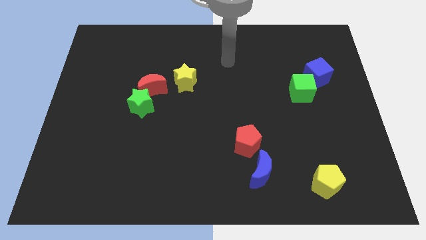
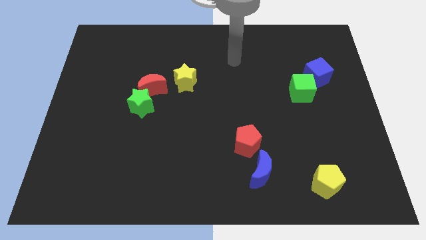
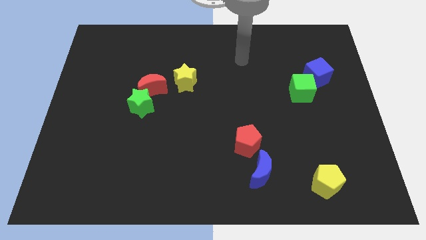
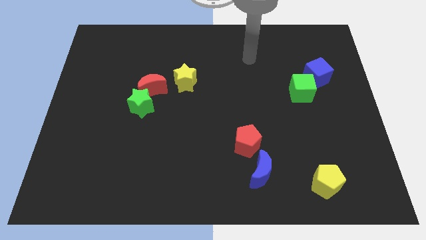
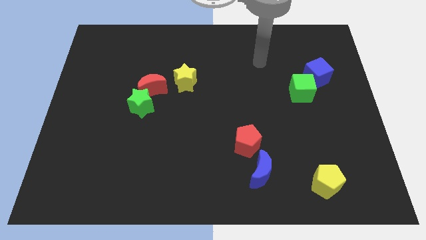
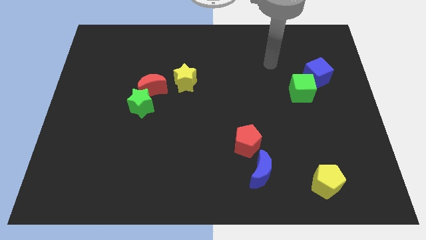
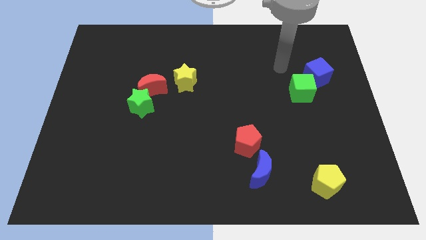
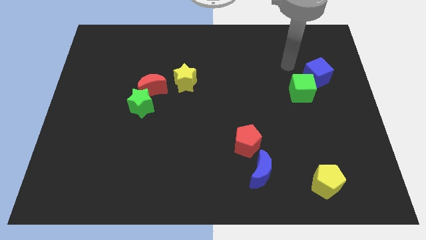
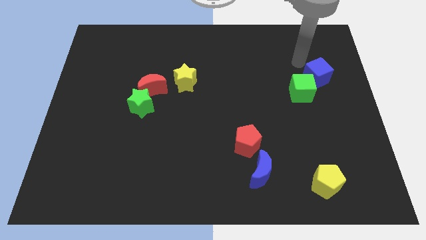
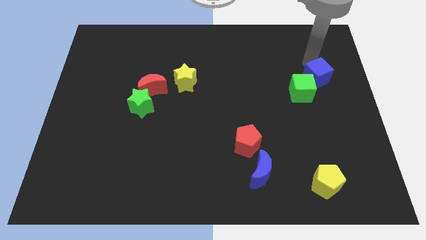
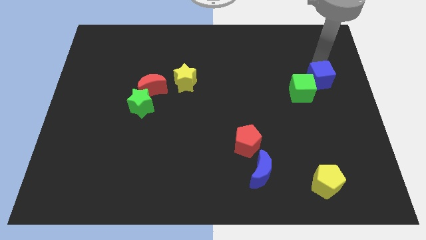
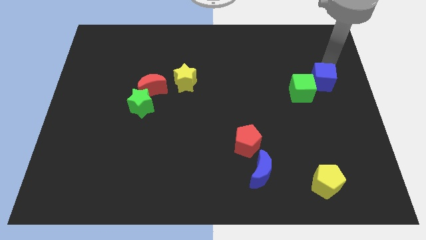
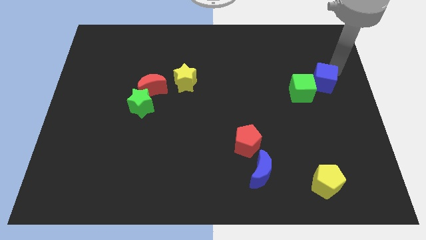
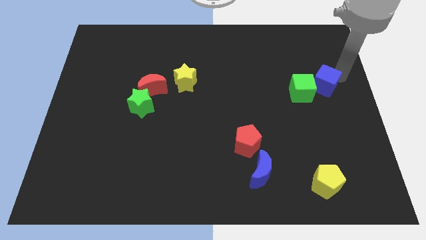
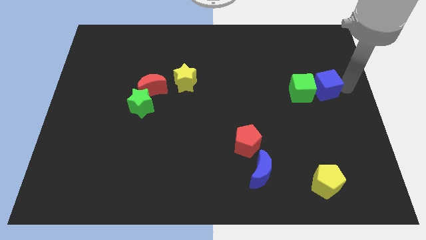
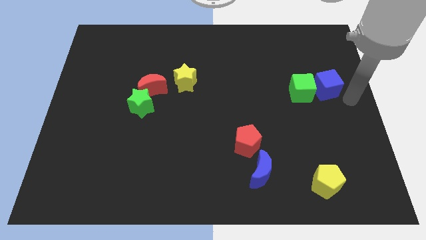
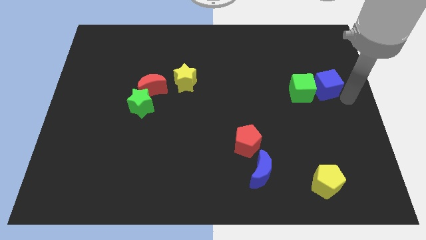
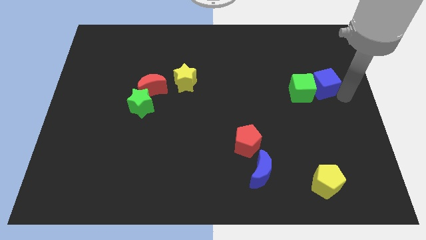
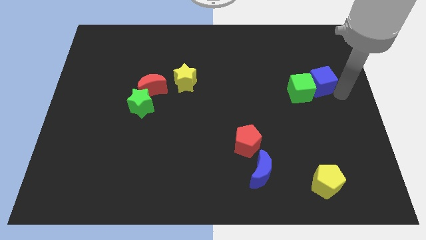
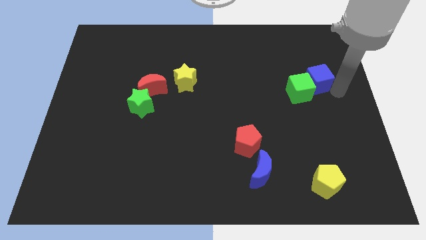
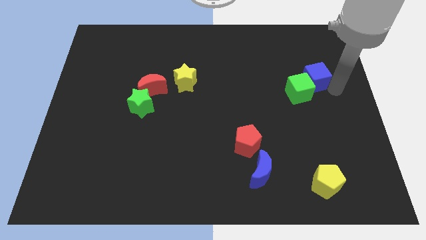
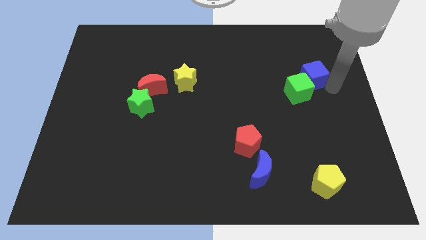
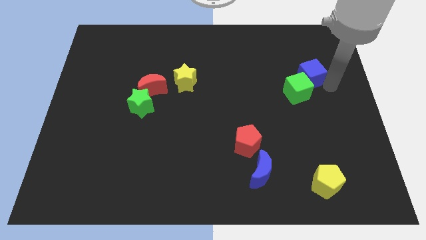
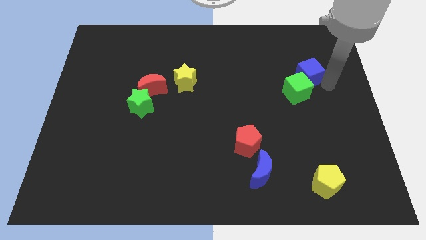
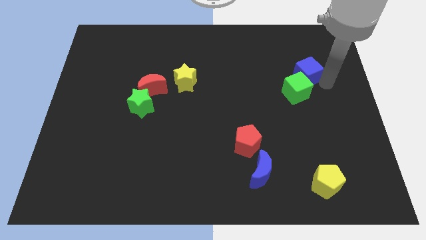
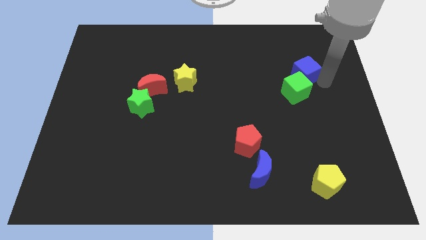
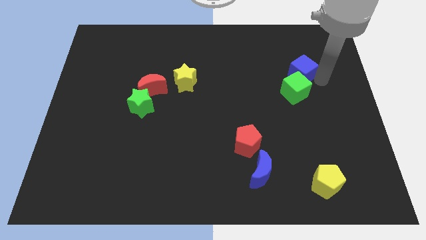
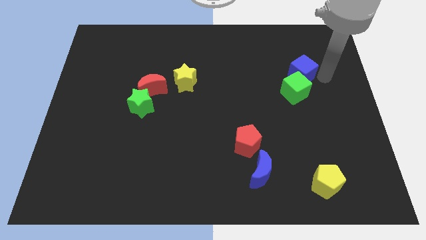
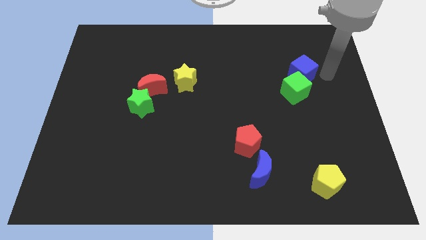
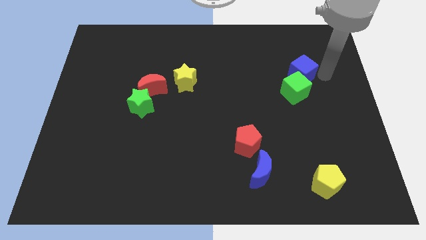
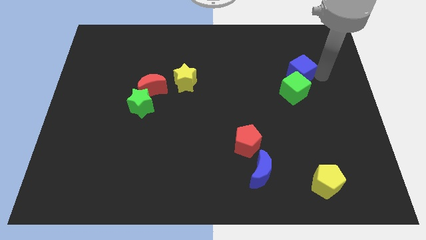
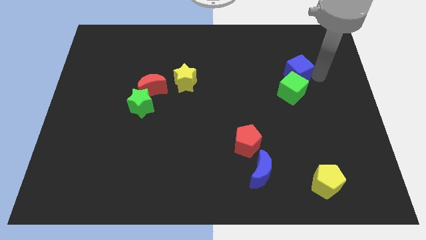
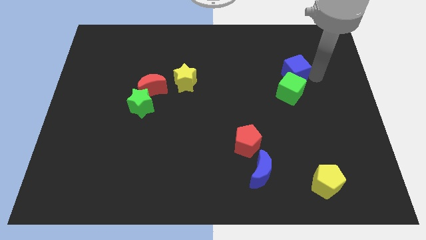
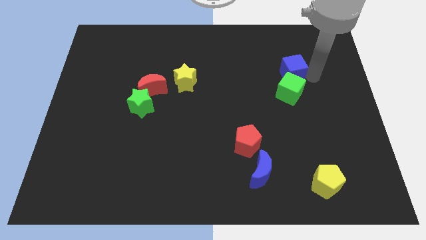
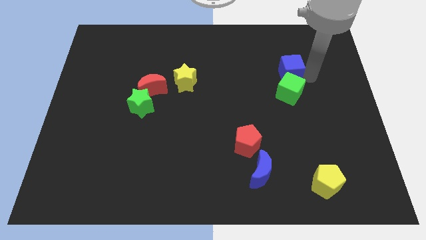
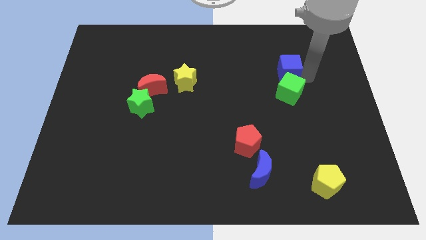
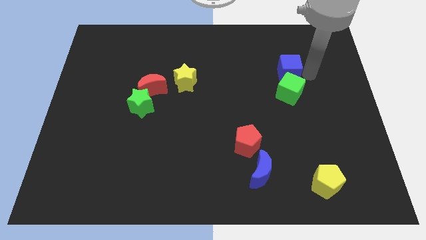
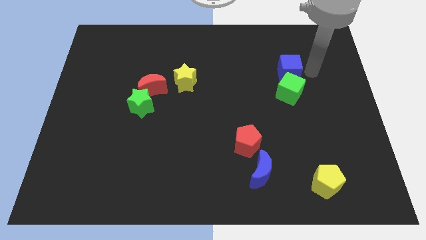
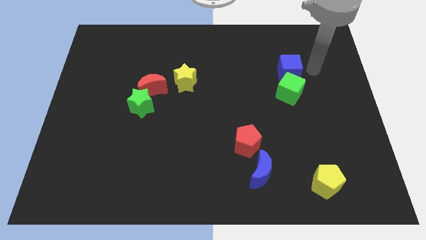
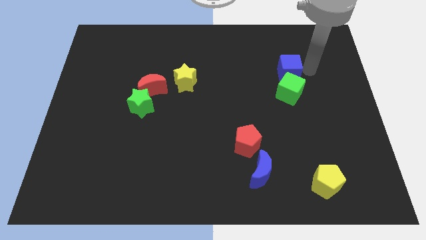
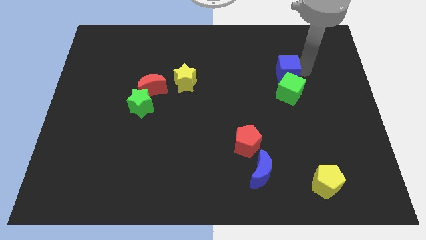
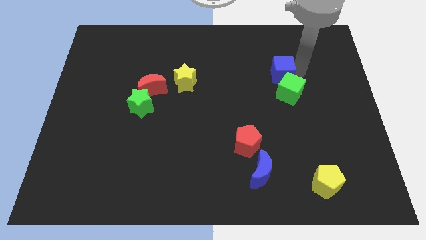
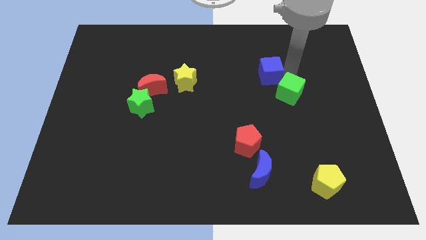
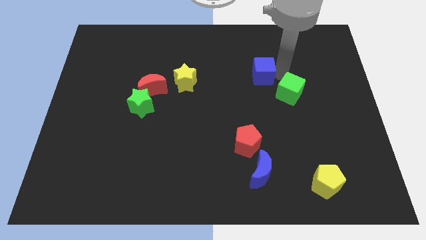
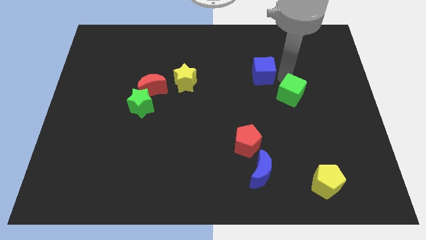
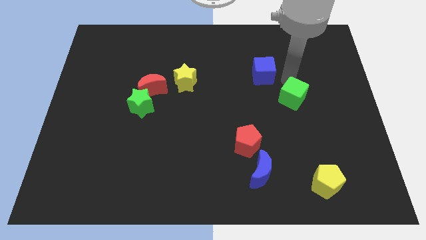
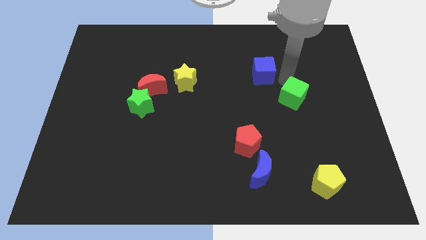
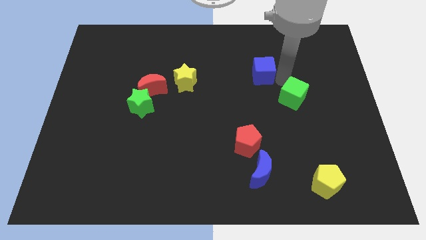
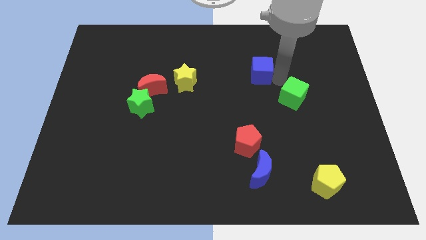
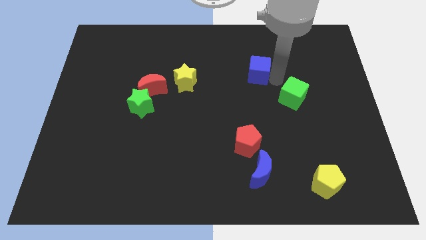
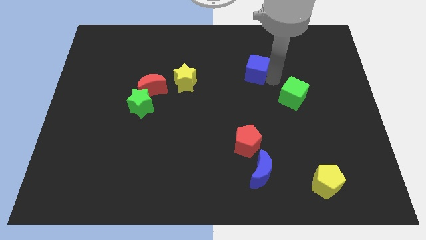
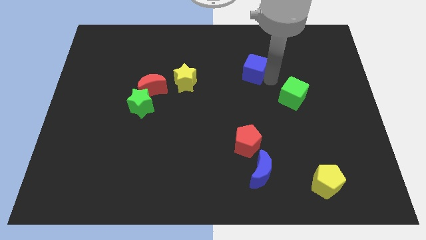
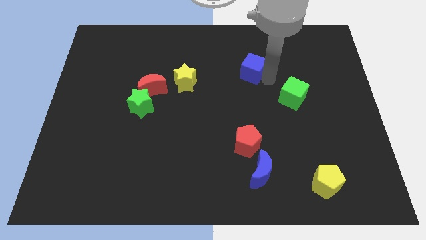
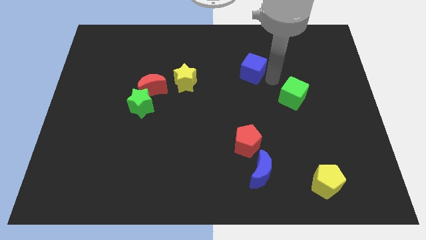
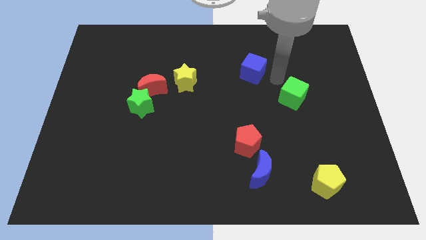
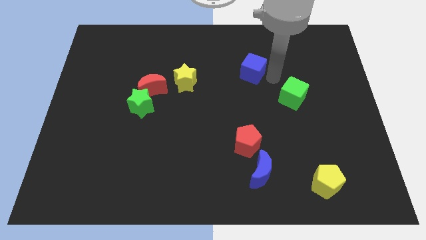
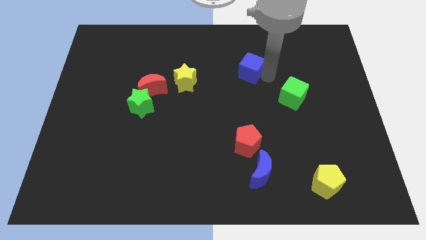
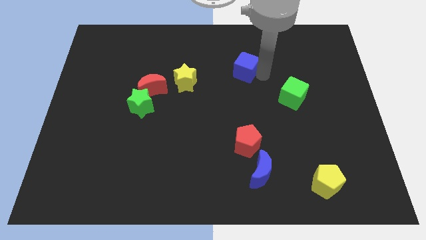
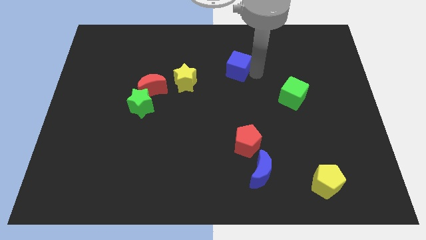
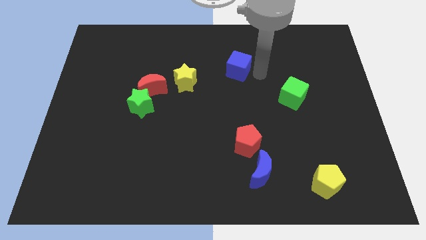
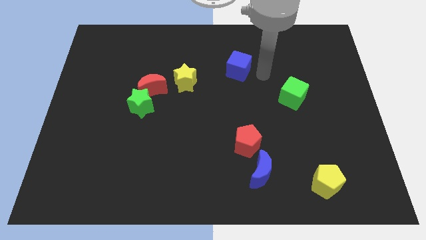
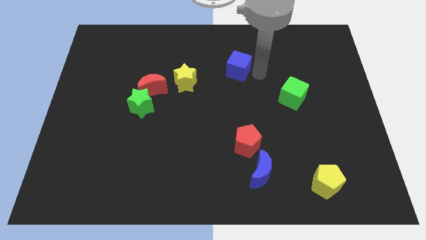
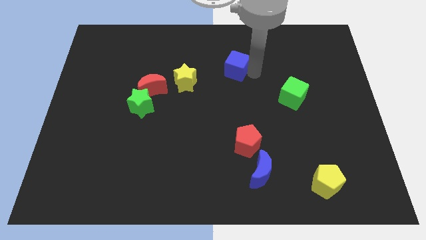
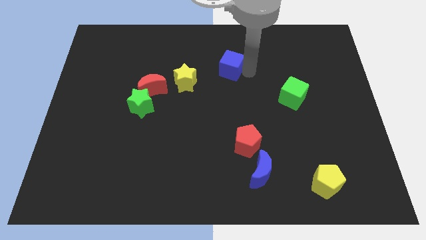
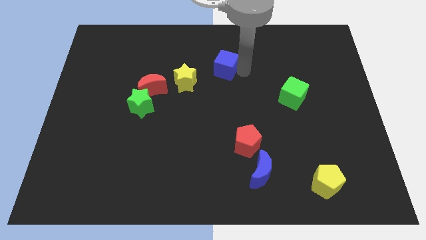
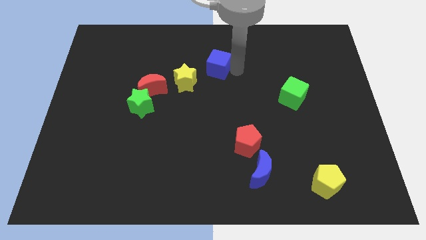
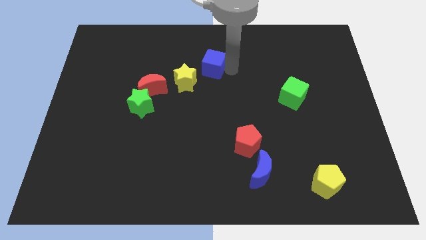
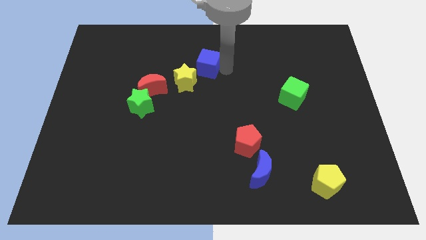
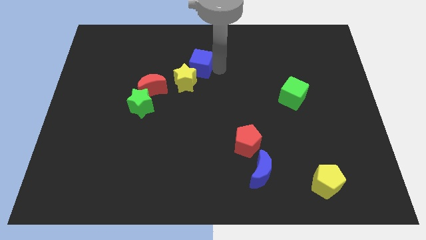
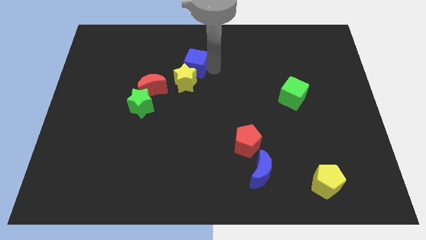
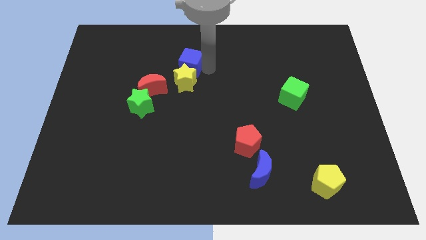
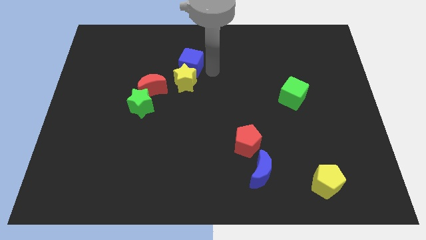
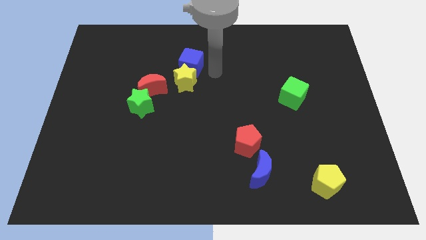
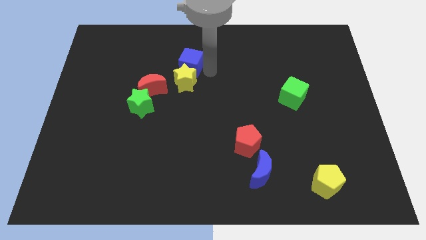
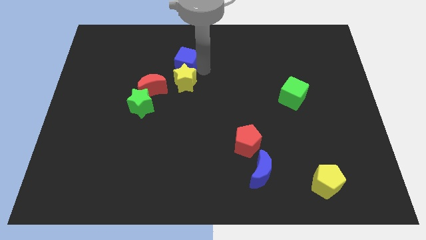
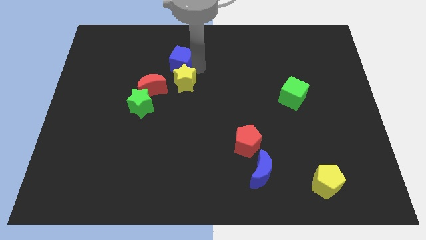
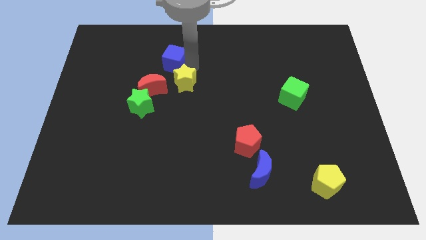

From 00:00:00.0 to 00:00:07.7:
move the blue cube to the top of the red moon

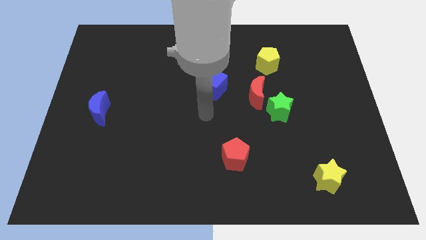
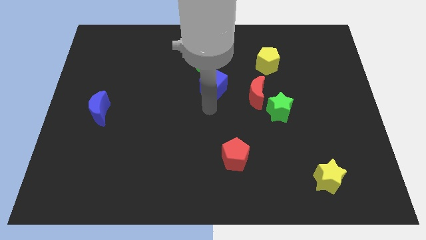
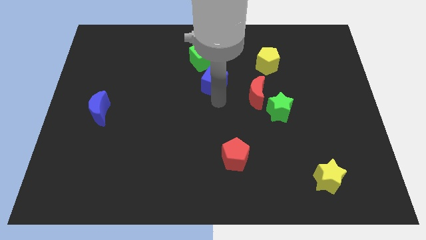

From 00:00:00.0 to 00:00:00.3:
slide the red moon to the bottom right side of the blue cube
